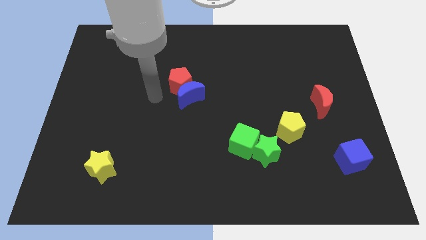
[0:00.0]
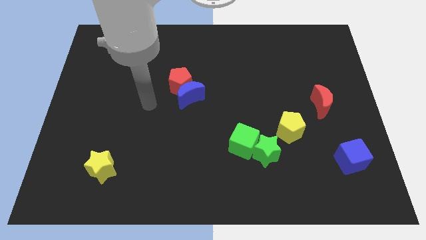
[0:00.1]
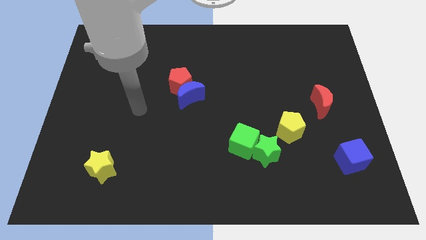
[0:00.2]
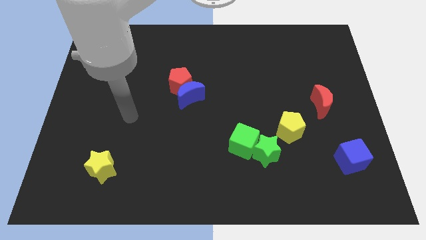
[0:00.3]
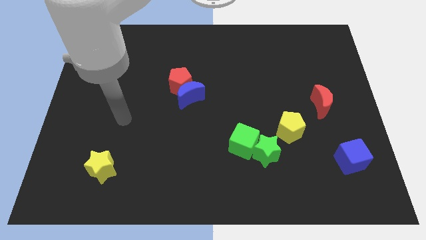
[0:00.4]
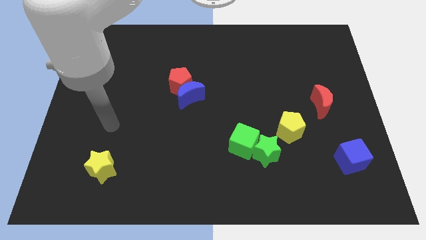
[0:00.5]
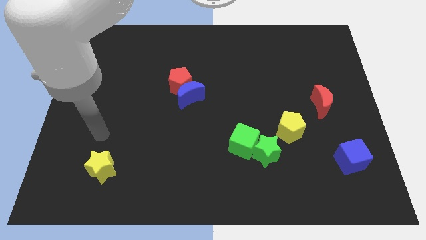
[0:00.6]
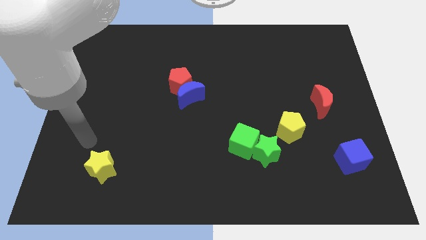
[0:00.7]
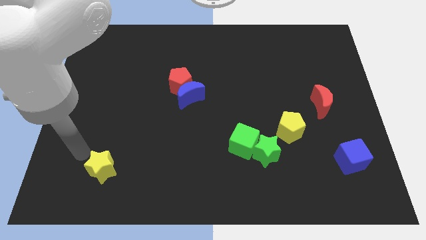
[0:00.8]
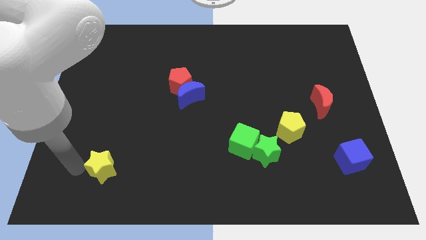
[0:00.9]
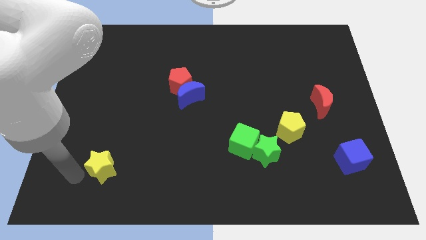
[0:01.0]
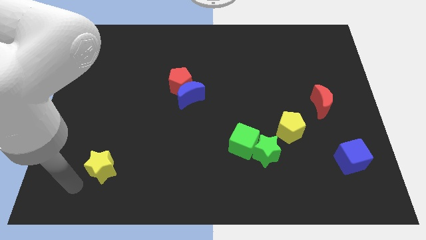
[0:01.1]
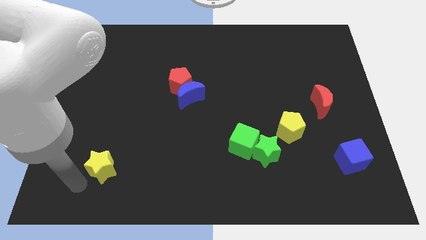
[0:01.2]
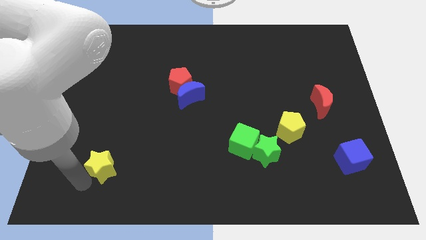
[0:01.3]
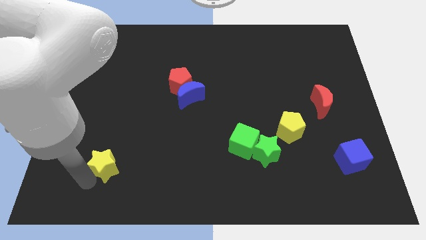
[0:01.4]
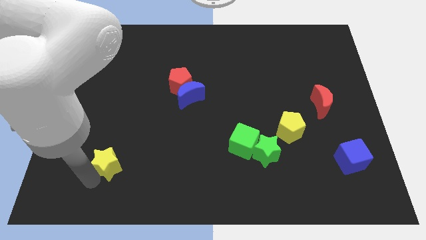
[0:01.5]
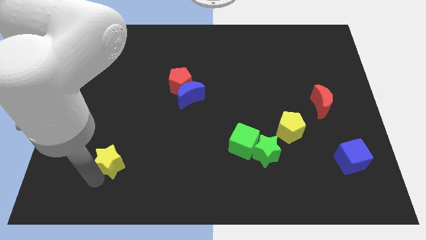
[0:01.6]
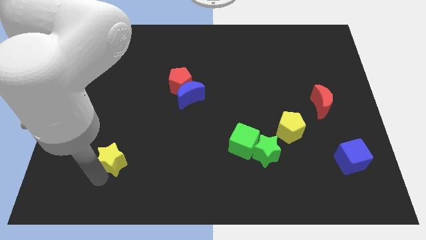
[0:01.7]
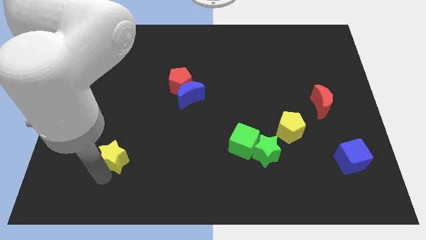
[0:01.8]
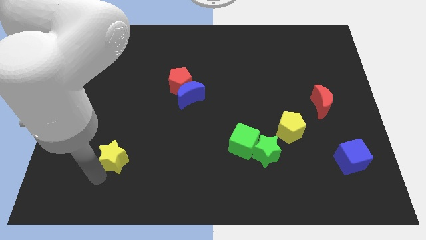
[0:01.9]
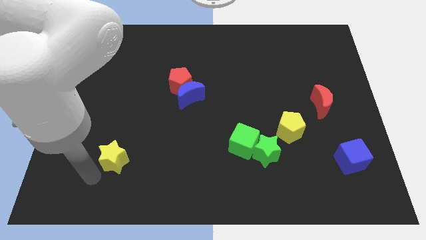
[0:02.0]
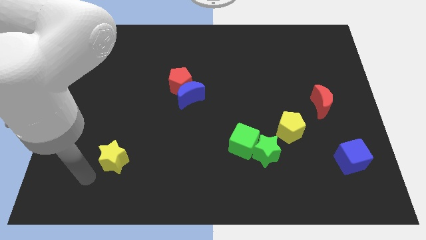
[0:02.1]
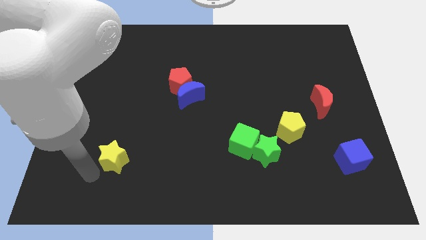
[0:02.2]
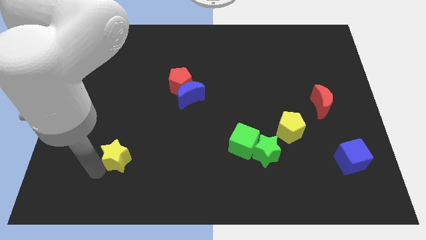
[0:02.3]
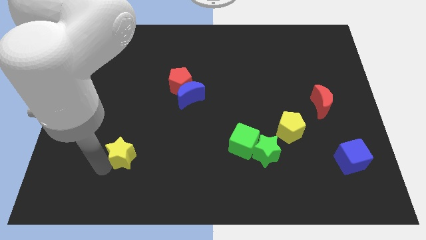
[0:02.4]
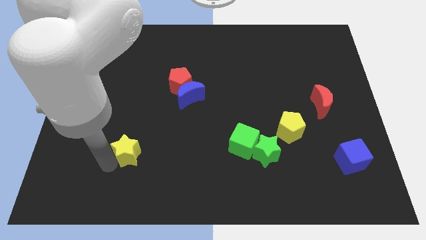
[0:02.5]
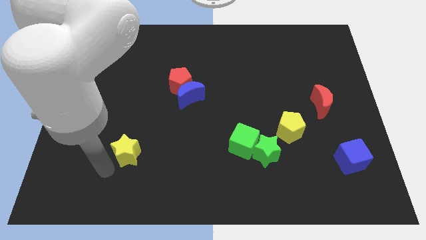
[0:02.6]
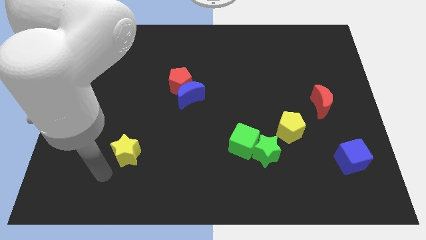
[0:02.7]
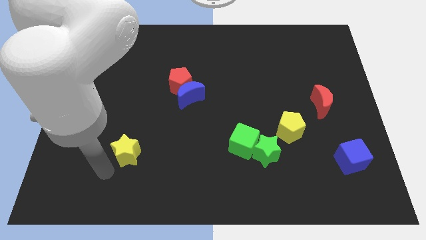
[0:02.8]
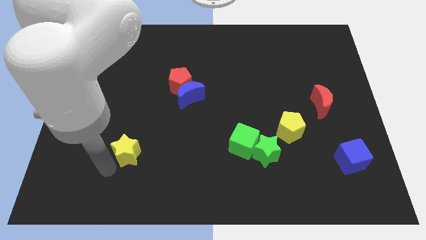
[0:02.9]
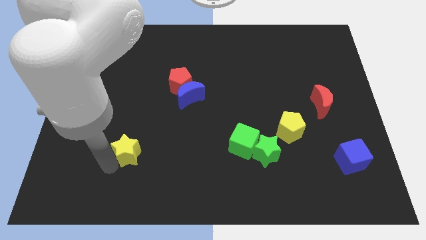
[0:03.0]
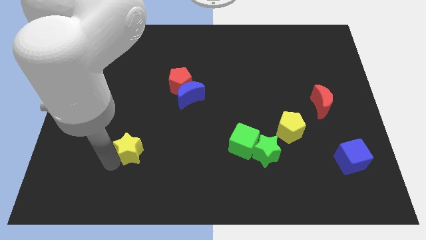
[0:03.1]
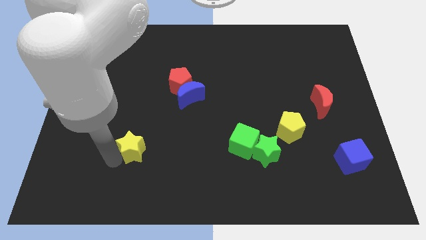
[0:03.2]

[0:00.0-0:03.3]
slightly slide the yellow star upwards and to the right diagonally

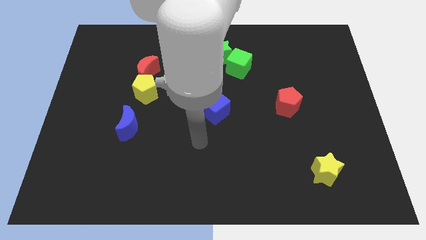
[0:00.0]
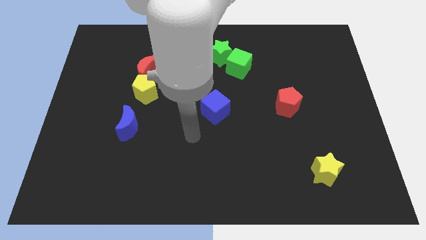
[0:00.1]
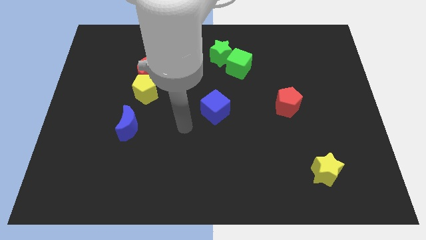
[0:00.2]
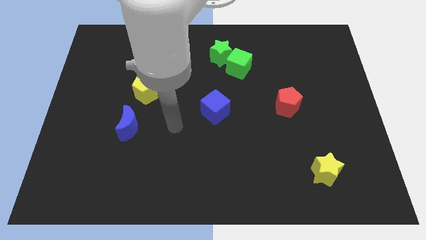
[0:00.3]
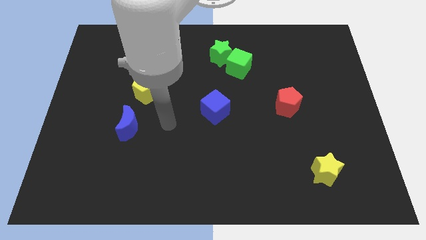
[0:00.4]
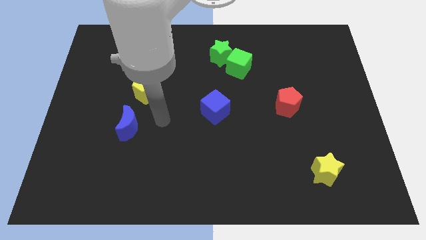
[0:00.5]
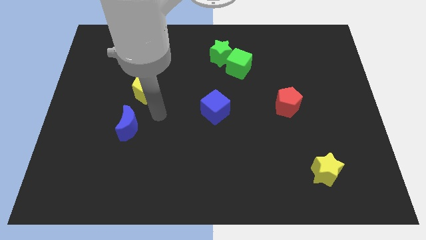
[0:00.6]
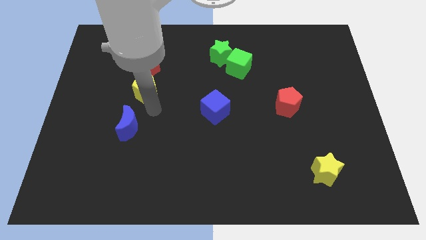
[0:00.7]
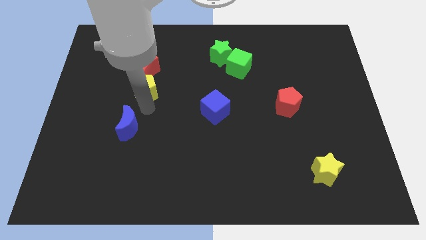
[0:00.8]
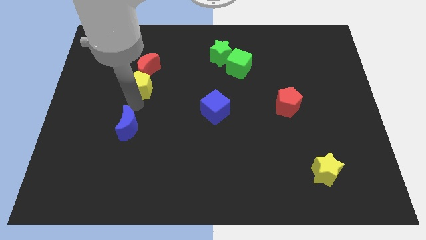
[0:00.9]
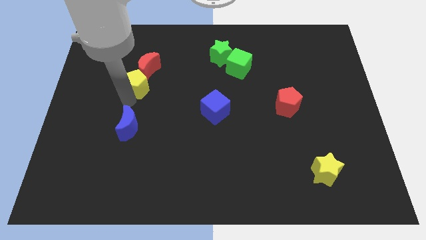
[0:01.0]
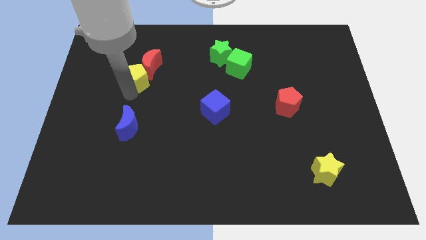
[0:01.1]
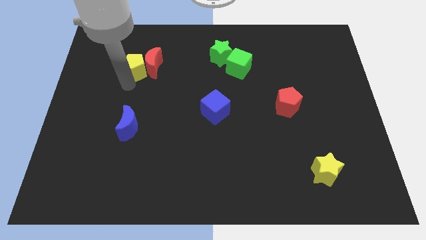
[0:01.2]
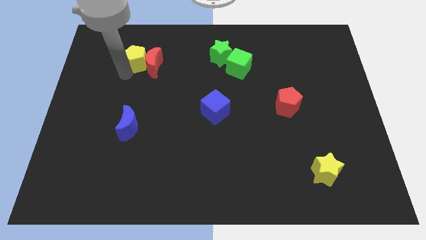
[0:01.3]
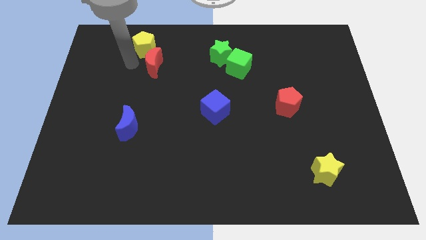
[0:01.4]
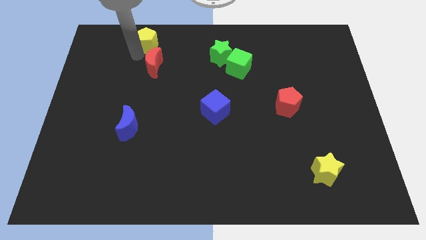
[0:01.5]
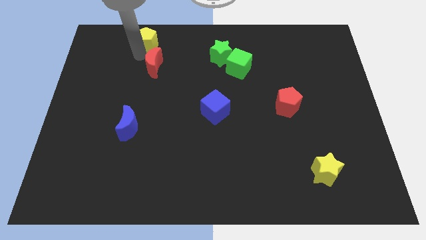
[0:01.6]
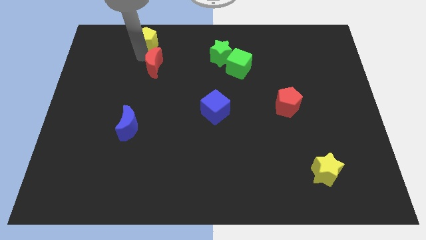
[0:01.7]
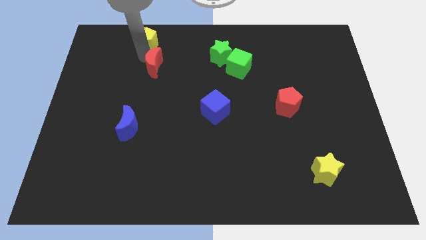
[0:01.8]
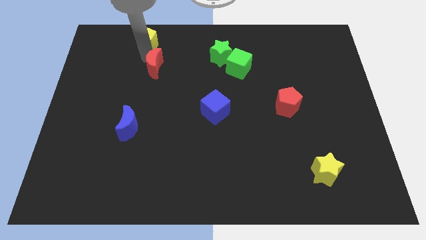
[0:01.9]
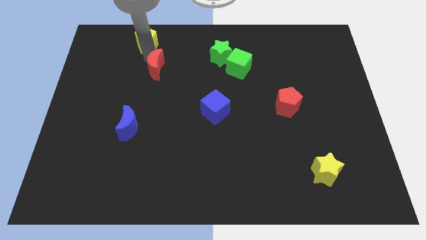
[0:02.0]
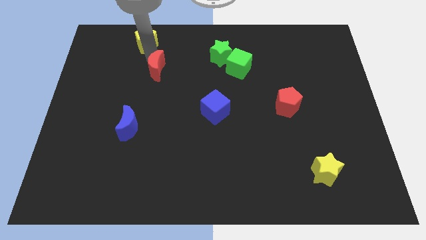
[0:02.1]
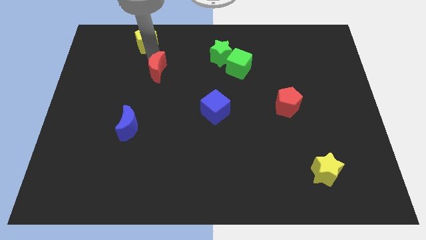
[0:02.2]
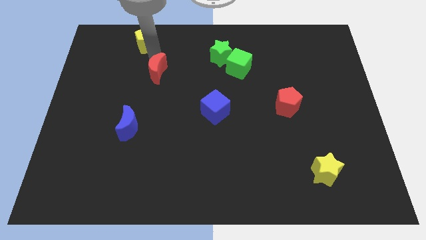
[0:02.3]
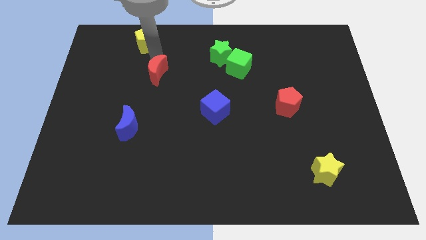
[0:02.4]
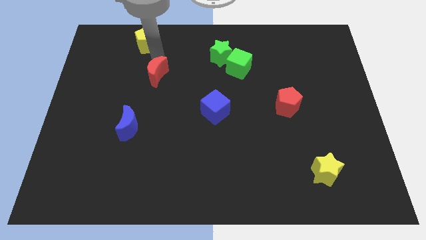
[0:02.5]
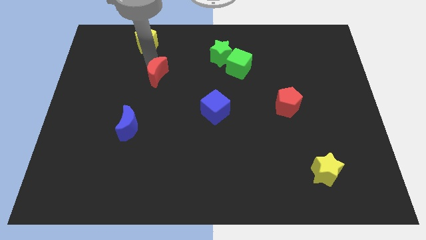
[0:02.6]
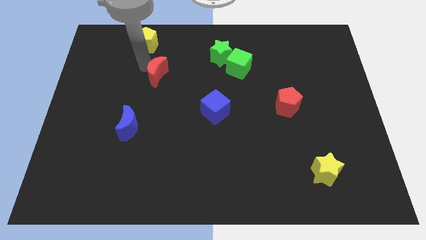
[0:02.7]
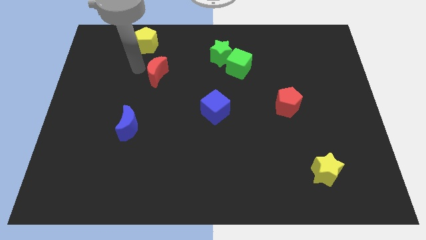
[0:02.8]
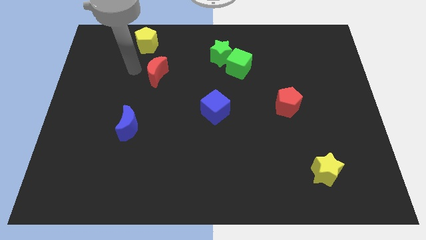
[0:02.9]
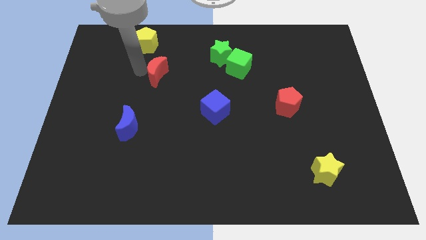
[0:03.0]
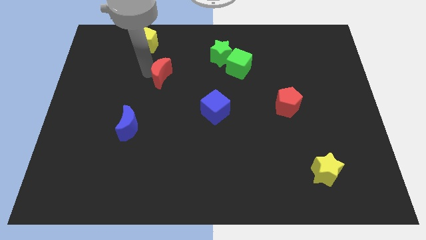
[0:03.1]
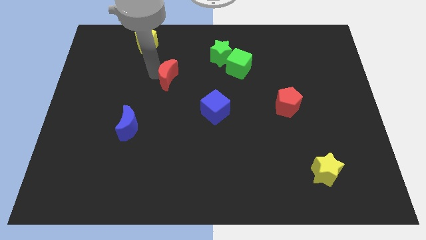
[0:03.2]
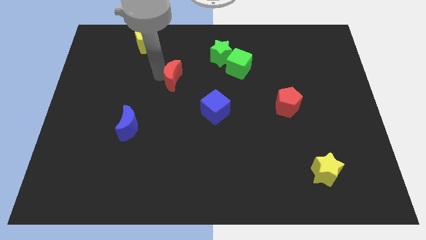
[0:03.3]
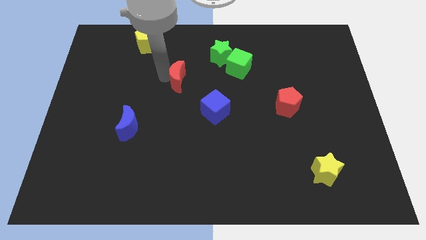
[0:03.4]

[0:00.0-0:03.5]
slightly slide the red moon to the right

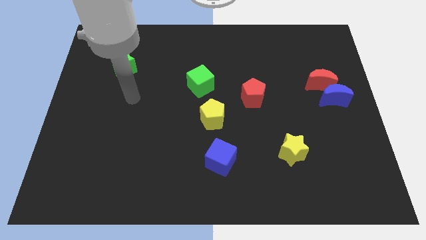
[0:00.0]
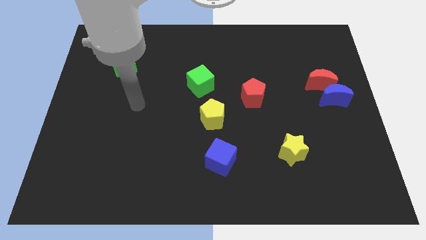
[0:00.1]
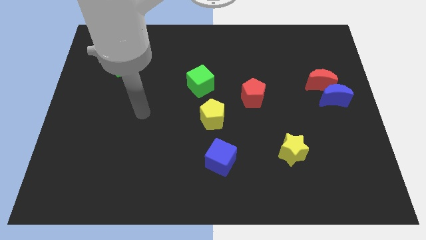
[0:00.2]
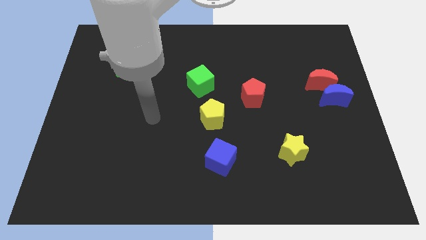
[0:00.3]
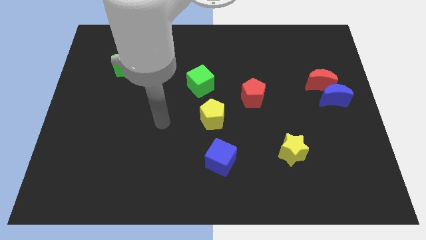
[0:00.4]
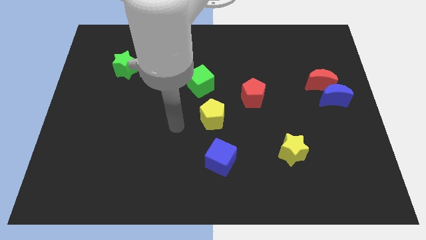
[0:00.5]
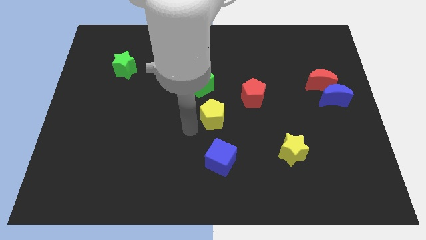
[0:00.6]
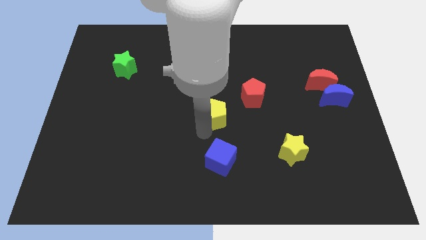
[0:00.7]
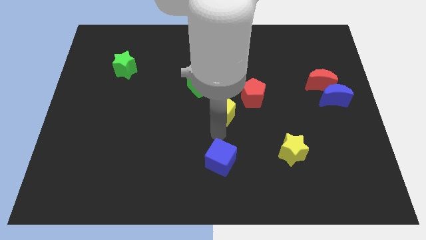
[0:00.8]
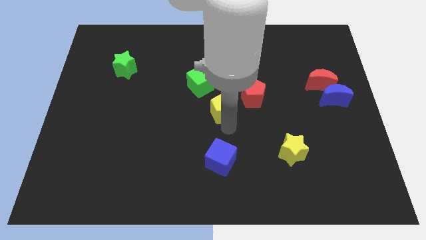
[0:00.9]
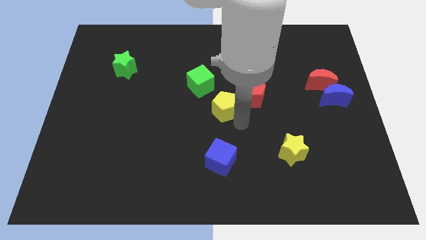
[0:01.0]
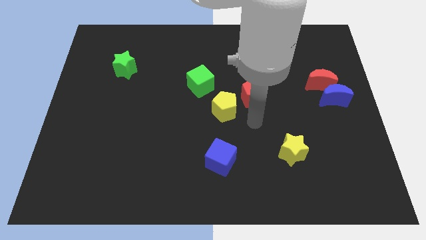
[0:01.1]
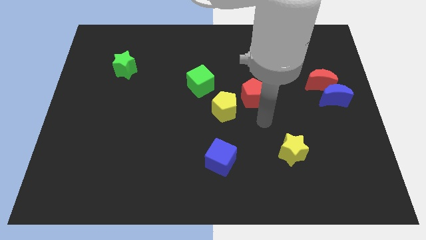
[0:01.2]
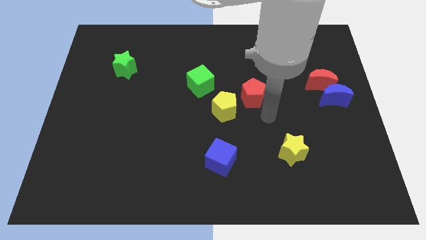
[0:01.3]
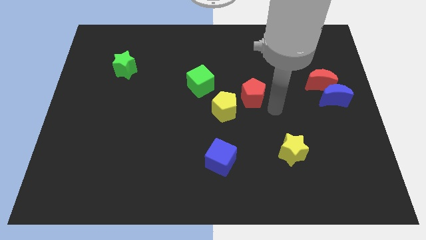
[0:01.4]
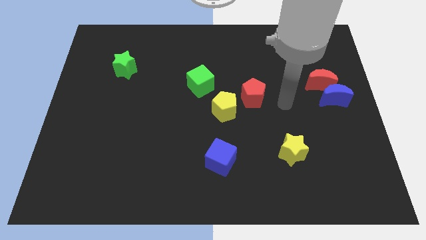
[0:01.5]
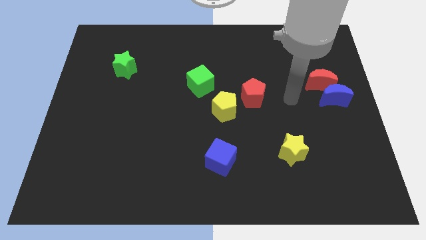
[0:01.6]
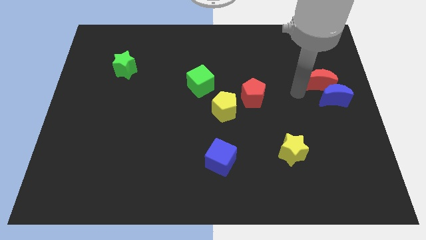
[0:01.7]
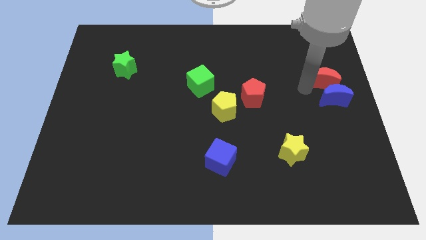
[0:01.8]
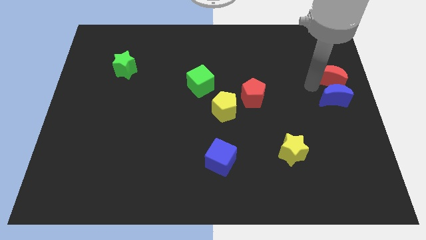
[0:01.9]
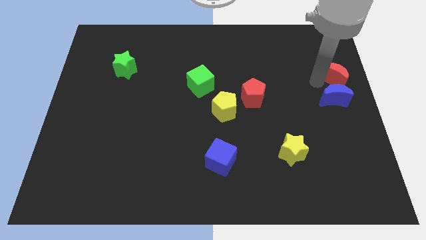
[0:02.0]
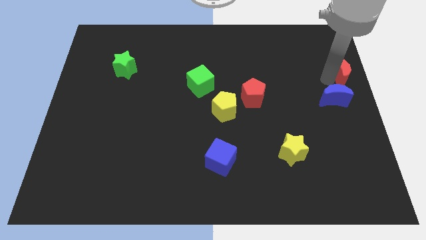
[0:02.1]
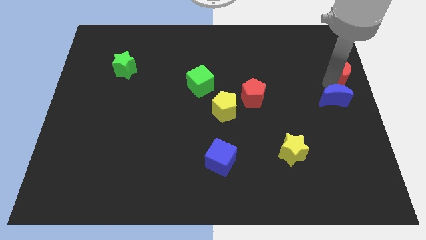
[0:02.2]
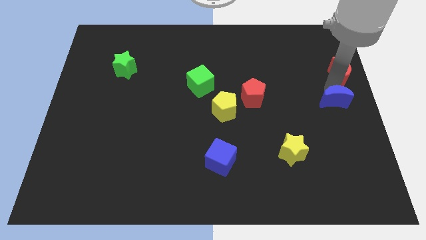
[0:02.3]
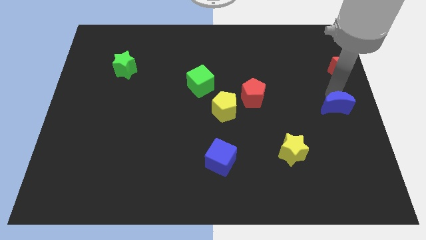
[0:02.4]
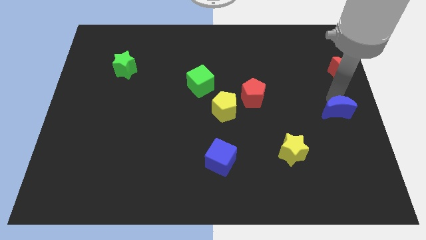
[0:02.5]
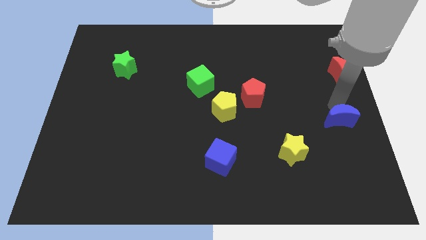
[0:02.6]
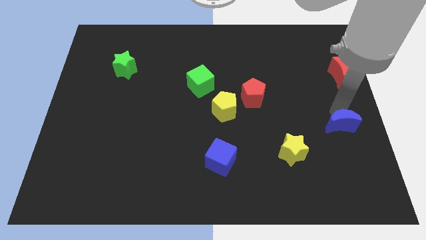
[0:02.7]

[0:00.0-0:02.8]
slightly push the blue moon down
